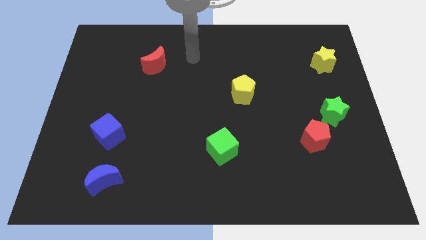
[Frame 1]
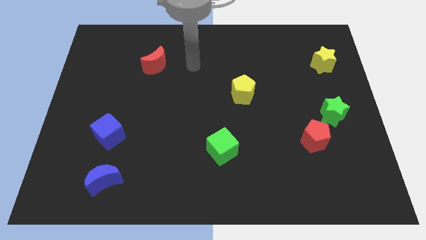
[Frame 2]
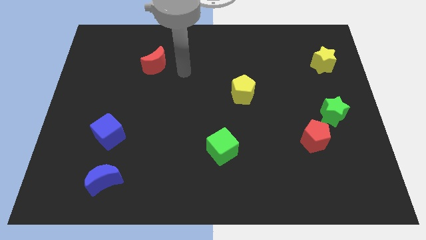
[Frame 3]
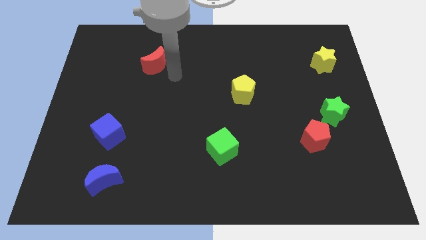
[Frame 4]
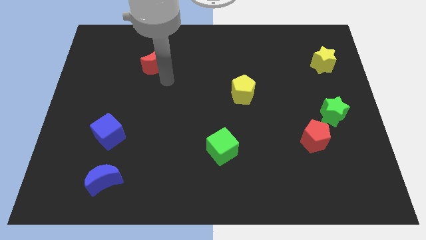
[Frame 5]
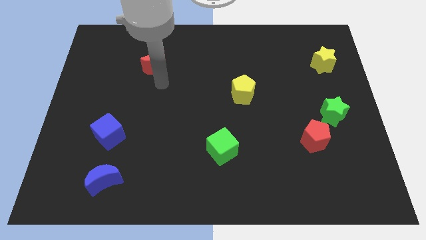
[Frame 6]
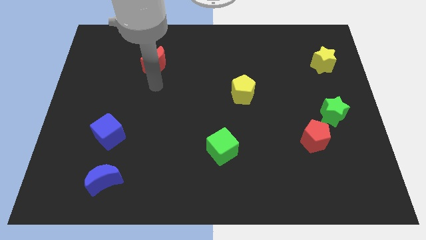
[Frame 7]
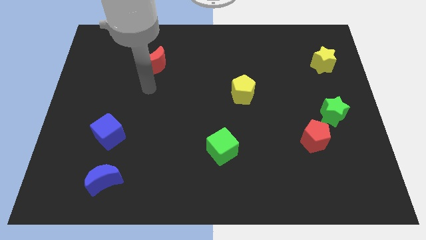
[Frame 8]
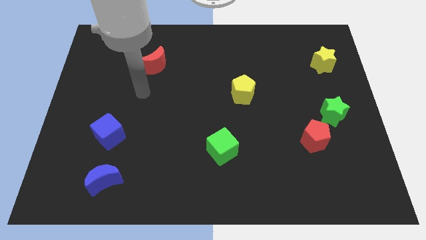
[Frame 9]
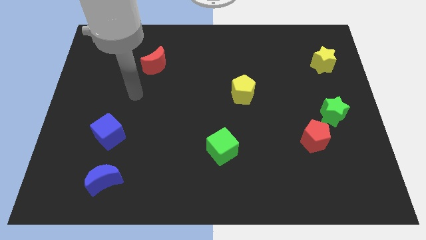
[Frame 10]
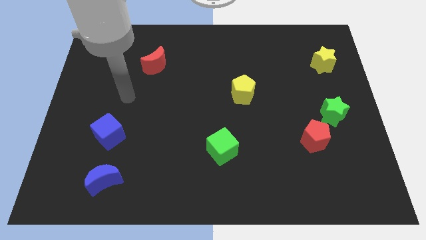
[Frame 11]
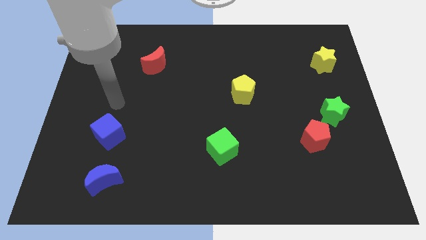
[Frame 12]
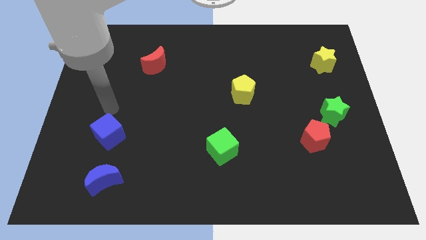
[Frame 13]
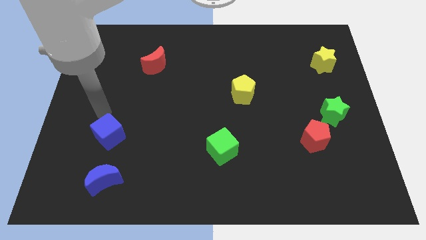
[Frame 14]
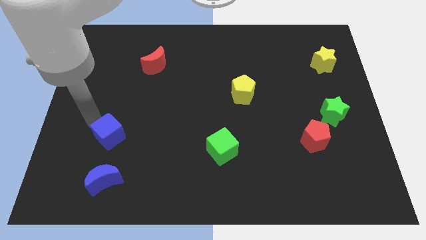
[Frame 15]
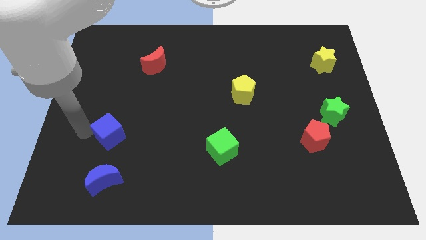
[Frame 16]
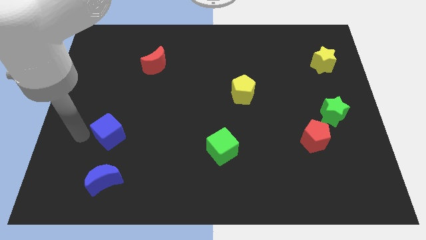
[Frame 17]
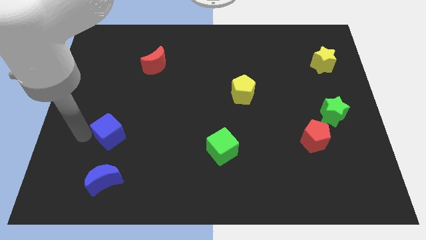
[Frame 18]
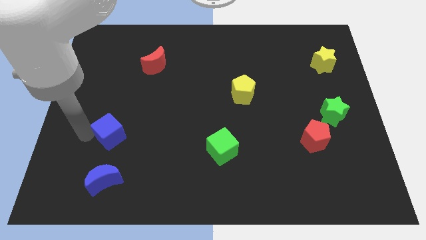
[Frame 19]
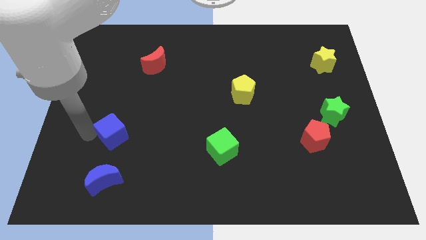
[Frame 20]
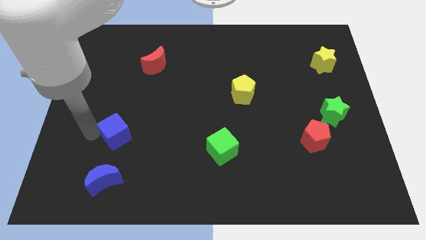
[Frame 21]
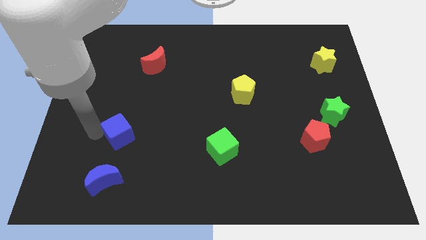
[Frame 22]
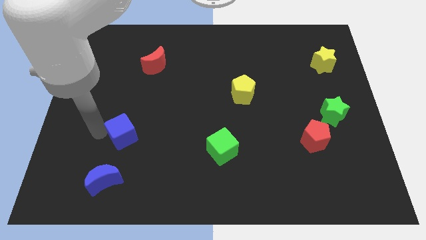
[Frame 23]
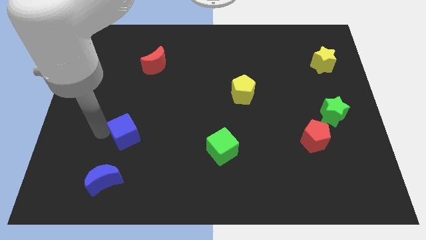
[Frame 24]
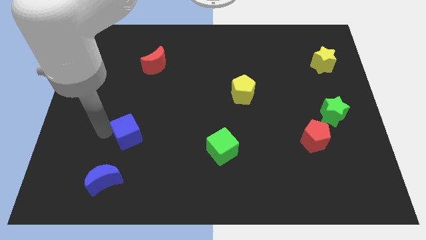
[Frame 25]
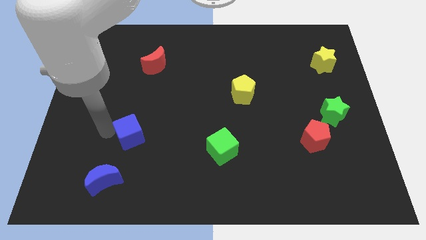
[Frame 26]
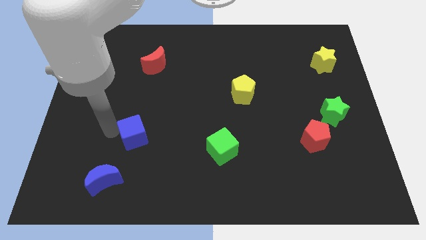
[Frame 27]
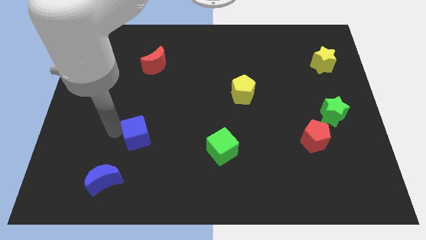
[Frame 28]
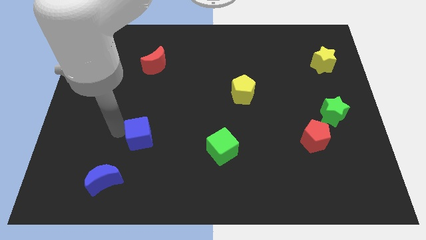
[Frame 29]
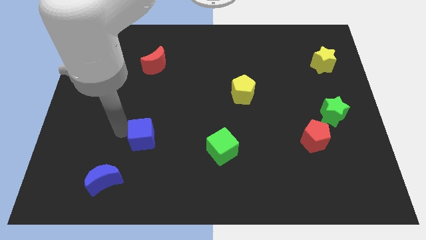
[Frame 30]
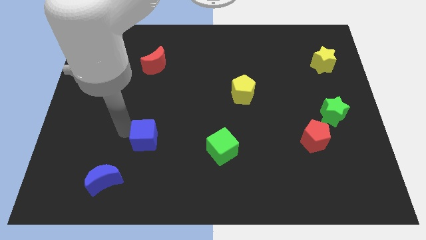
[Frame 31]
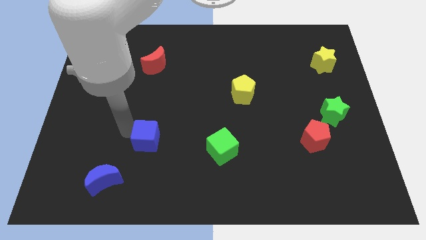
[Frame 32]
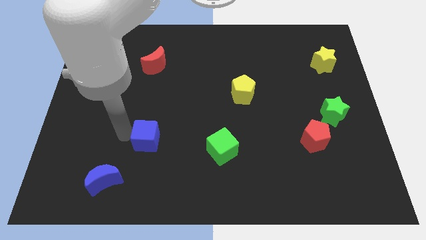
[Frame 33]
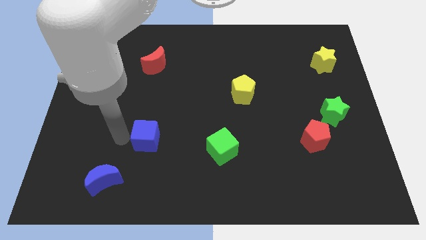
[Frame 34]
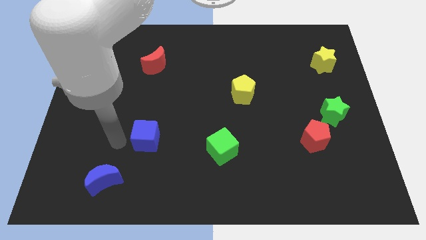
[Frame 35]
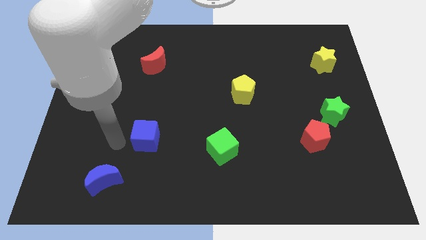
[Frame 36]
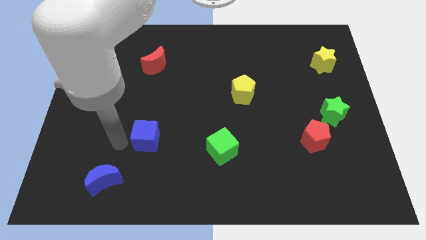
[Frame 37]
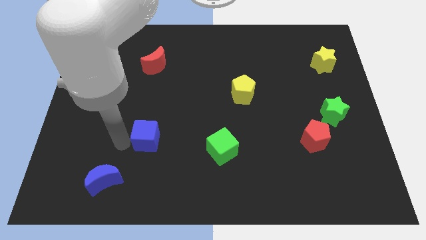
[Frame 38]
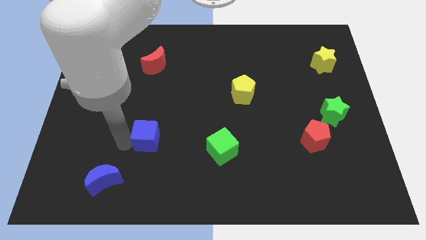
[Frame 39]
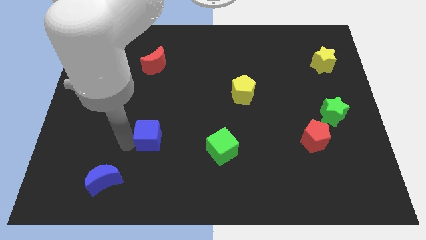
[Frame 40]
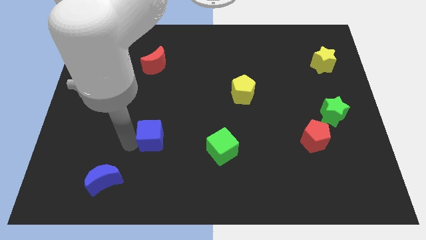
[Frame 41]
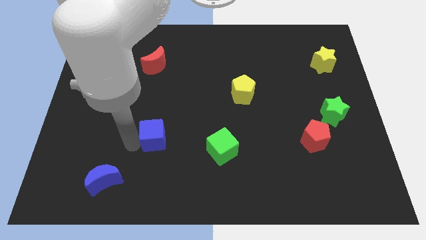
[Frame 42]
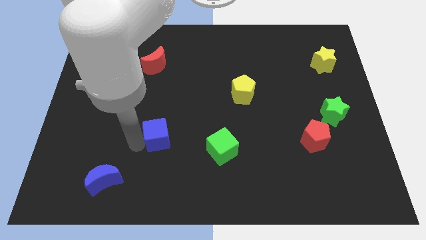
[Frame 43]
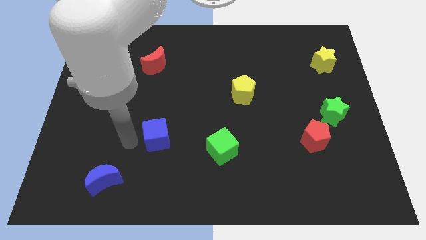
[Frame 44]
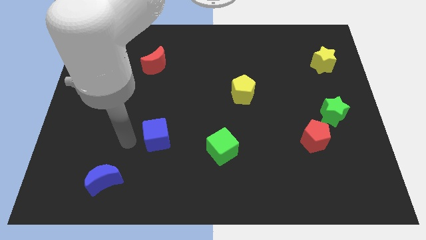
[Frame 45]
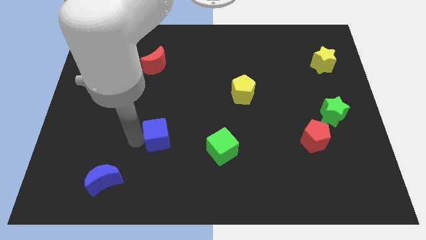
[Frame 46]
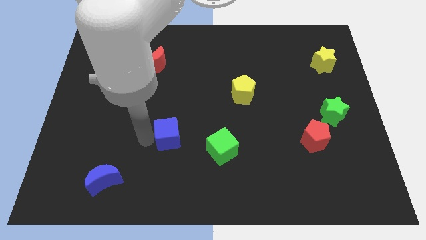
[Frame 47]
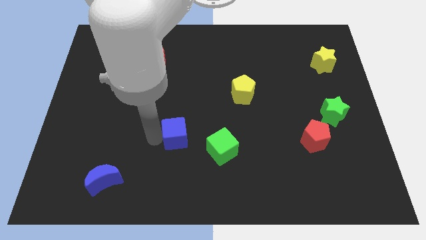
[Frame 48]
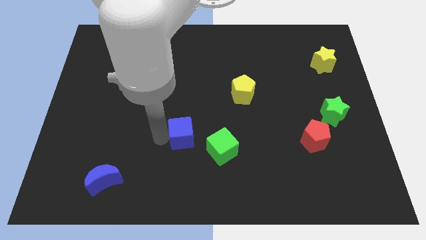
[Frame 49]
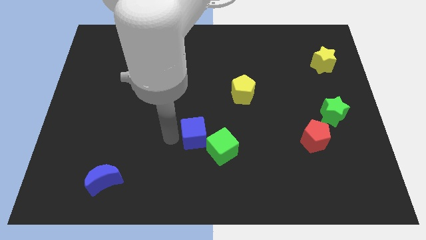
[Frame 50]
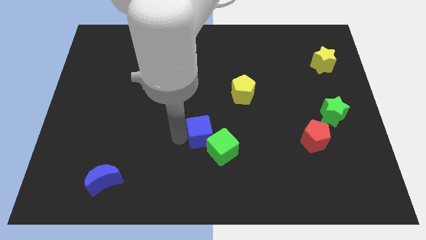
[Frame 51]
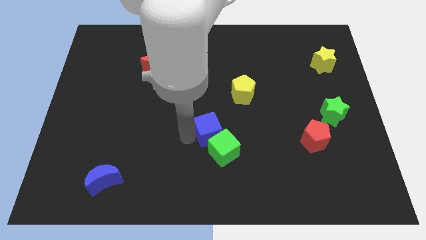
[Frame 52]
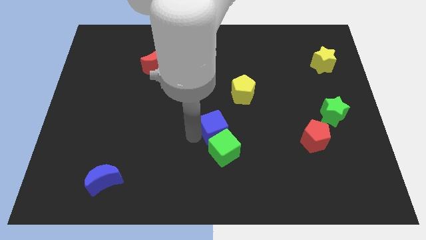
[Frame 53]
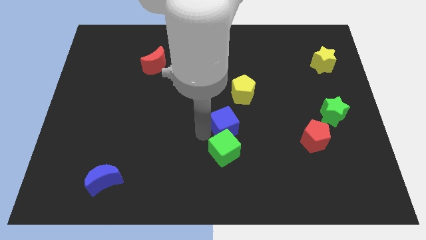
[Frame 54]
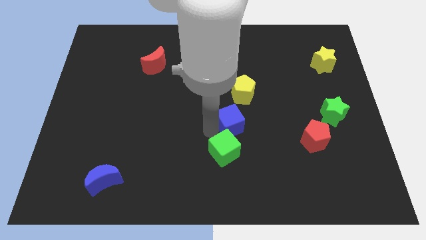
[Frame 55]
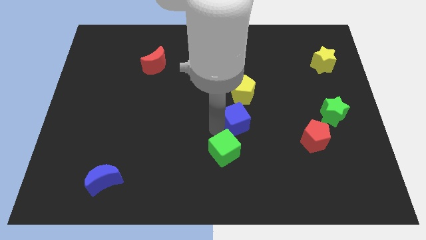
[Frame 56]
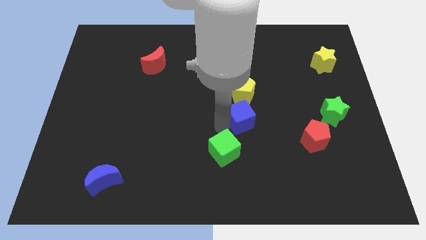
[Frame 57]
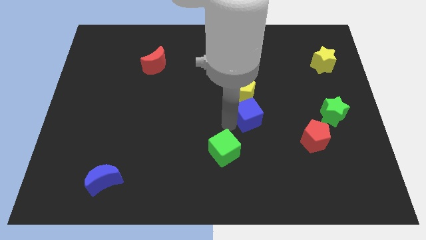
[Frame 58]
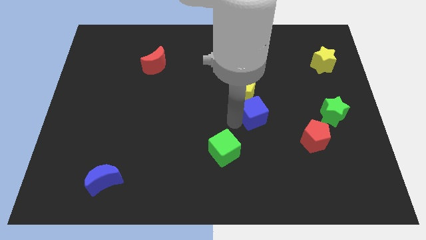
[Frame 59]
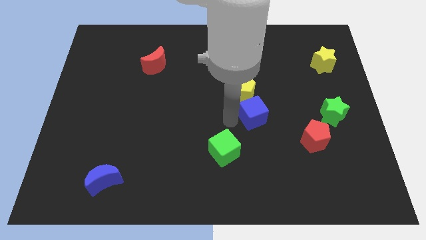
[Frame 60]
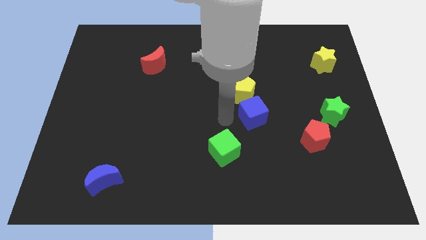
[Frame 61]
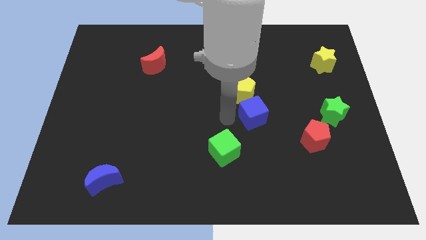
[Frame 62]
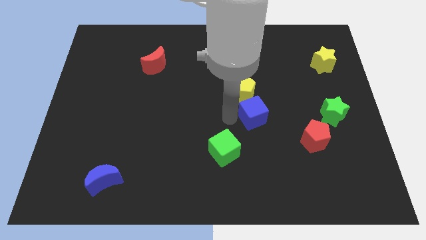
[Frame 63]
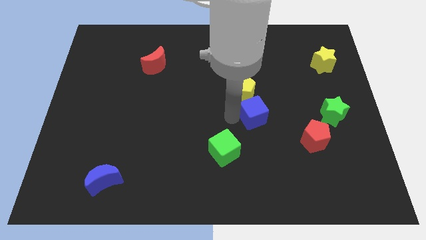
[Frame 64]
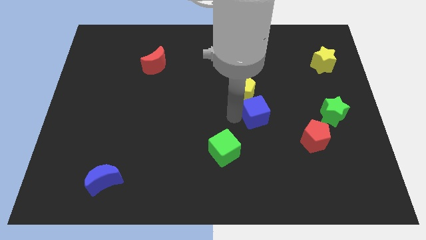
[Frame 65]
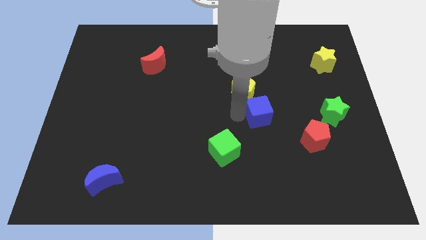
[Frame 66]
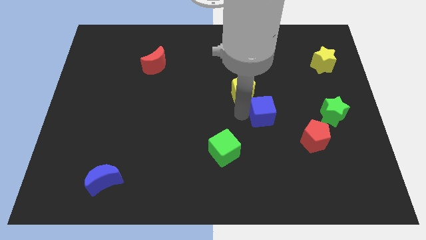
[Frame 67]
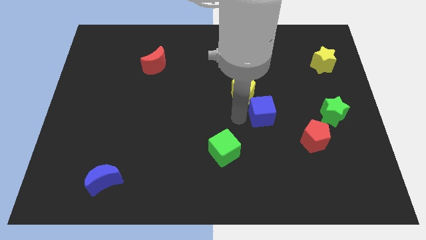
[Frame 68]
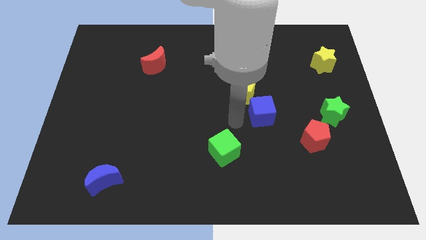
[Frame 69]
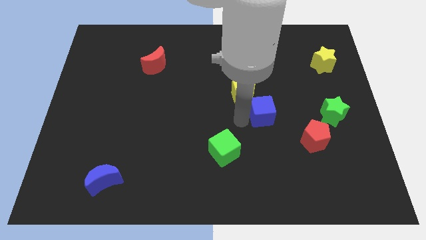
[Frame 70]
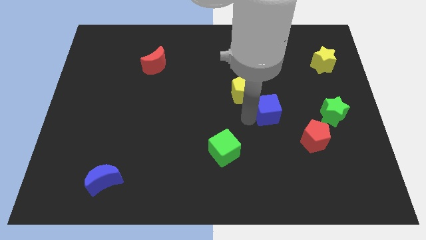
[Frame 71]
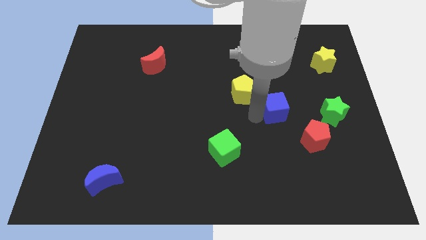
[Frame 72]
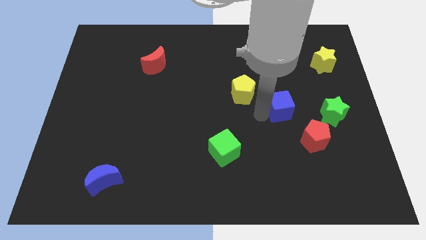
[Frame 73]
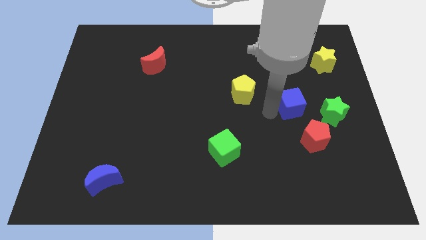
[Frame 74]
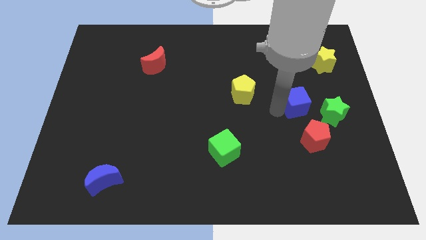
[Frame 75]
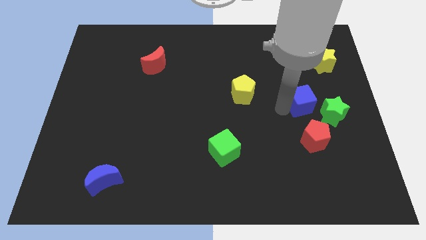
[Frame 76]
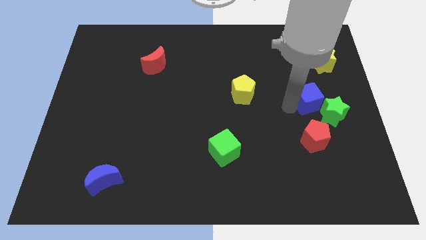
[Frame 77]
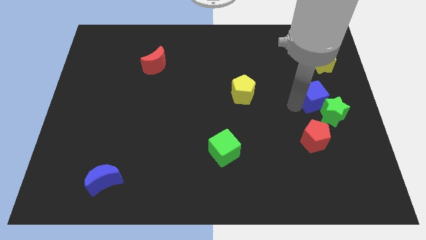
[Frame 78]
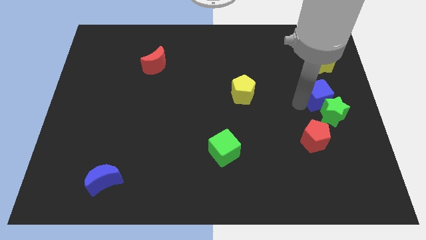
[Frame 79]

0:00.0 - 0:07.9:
put the blue cube to the center right
